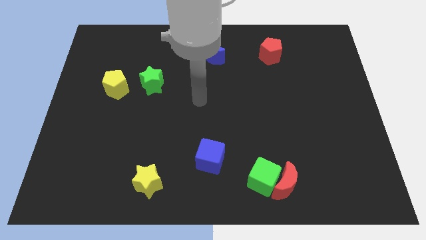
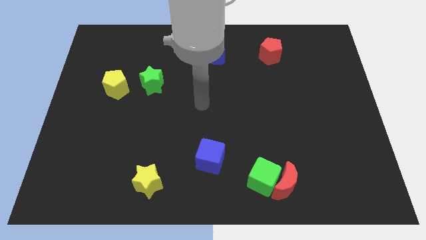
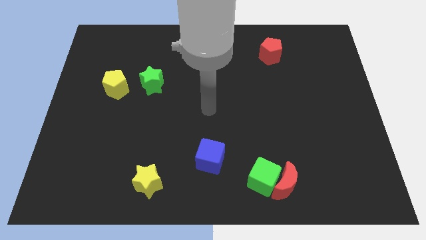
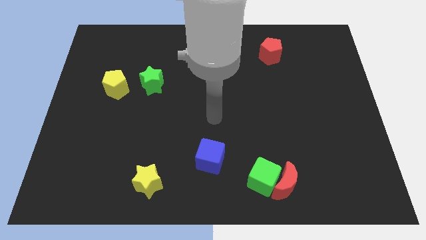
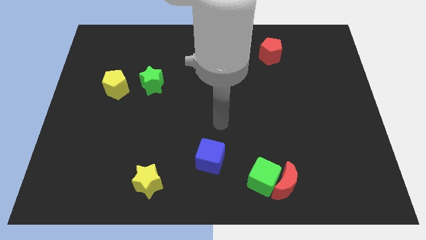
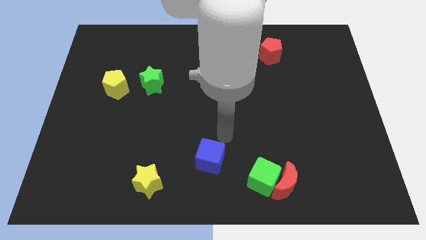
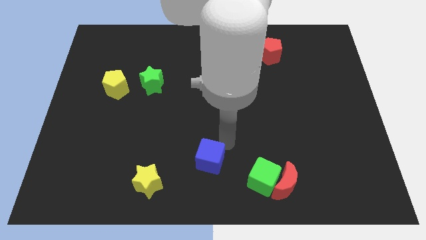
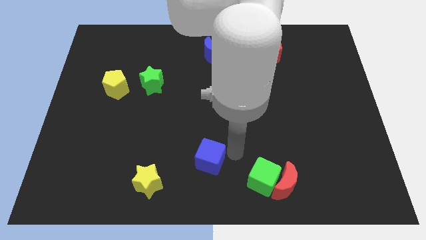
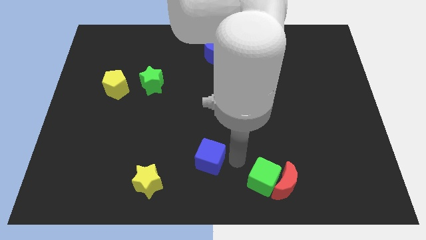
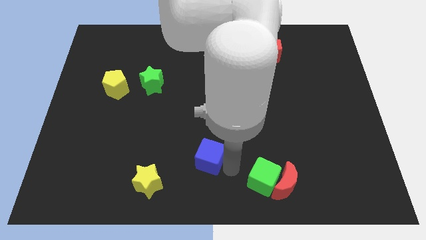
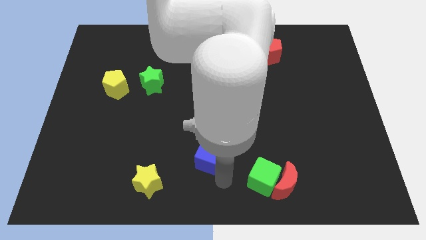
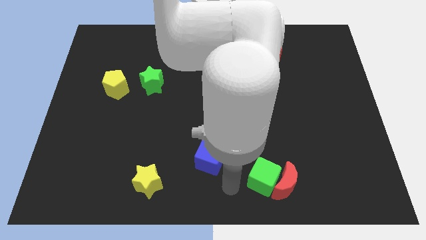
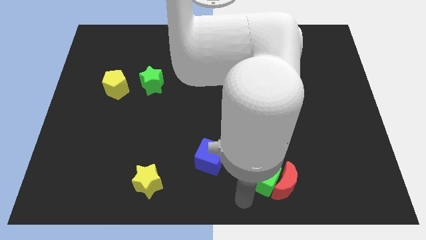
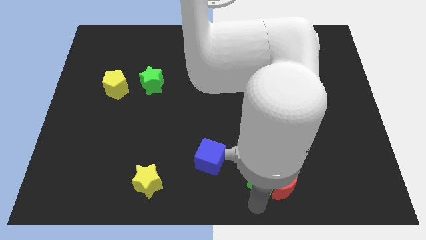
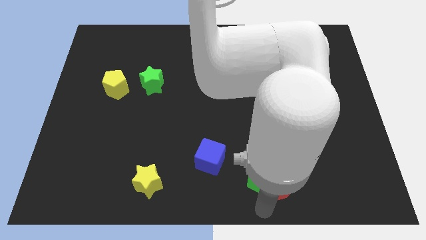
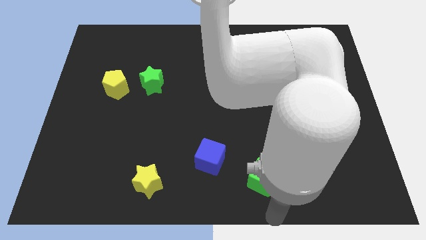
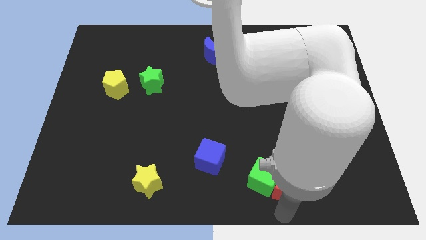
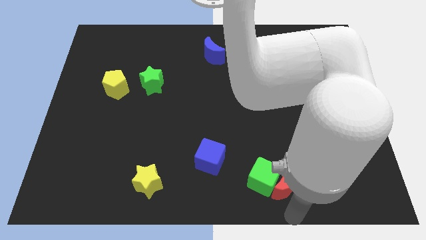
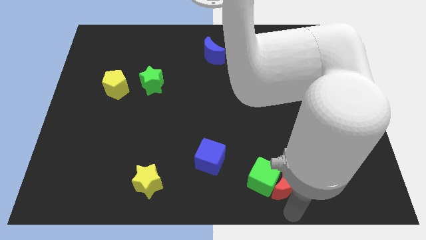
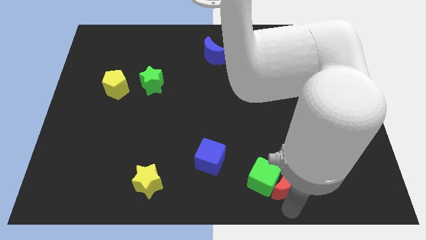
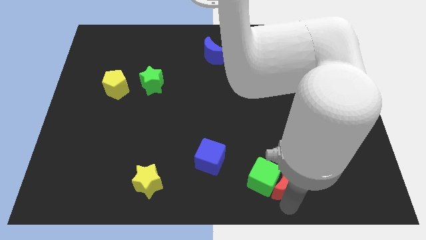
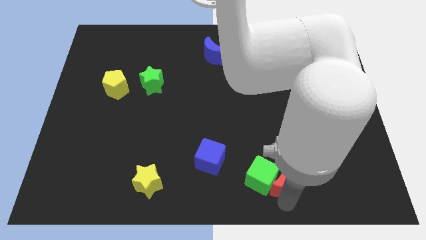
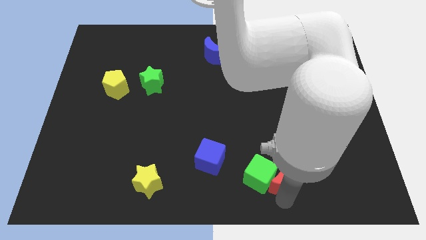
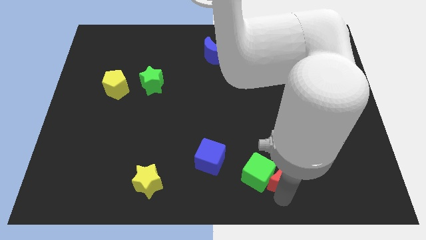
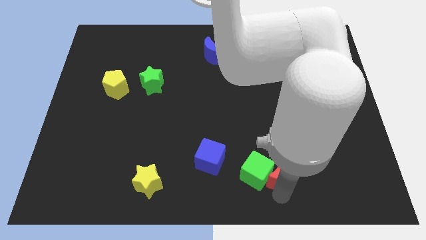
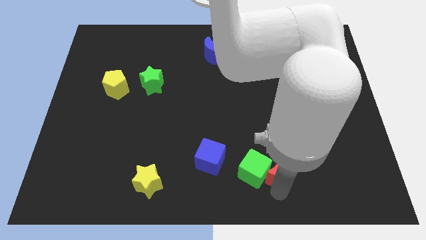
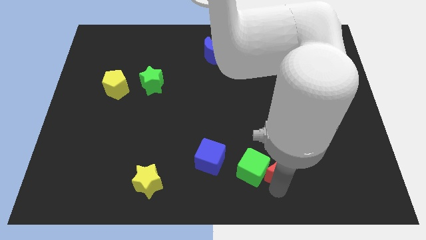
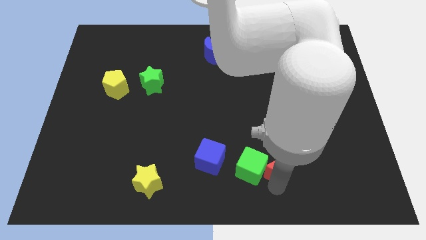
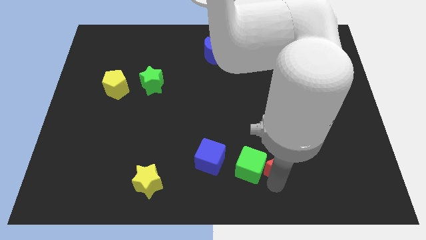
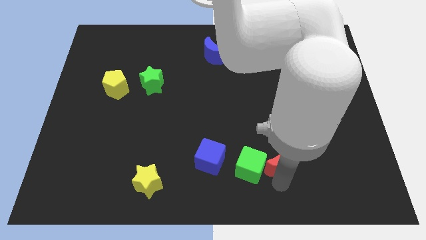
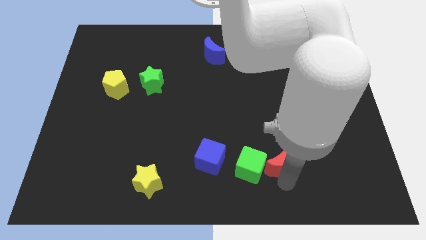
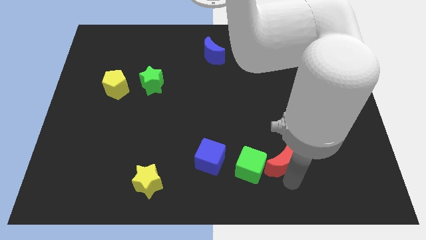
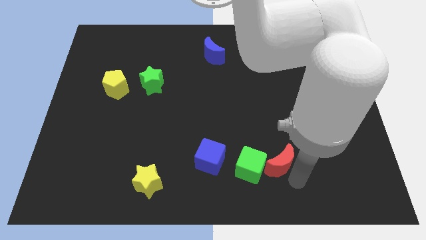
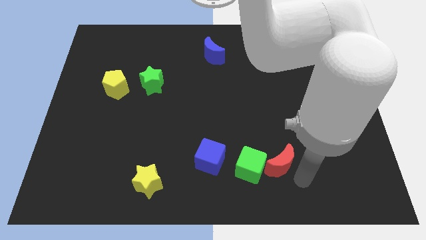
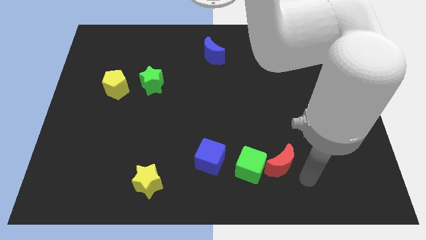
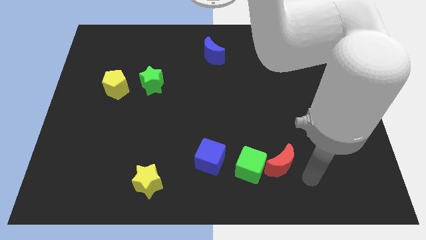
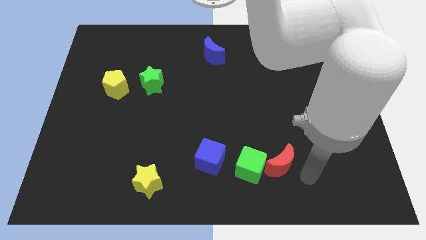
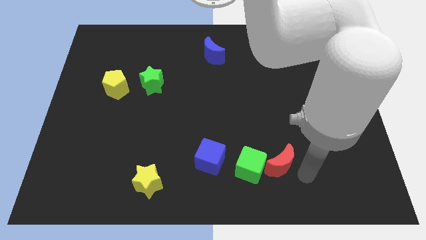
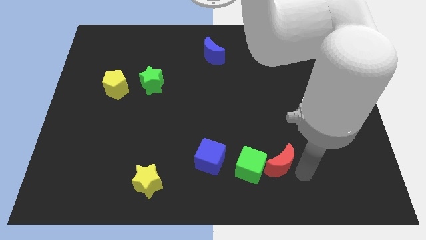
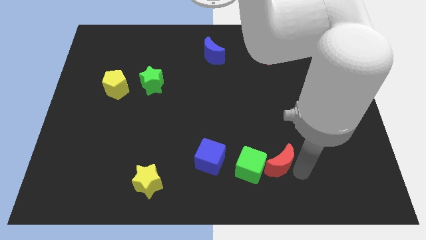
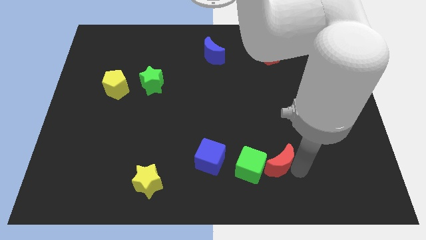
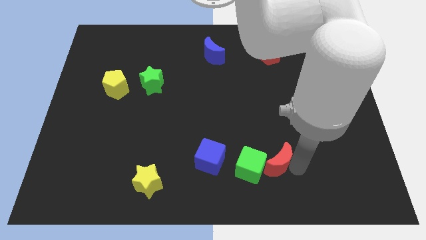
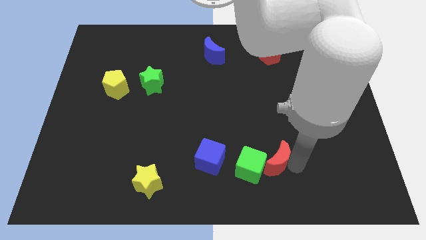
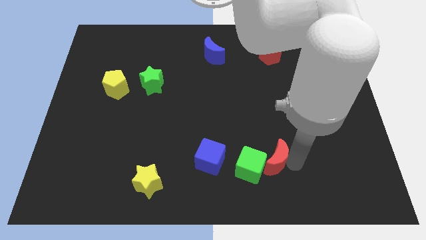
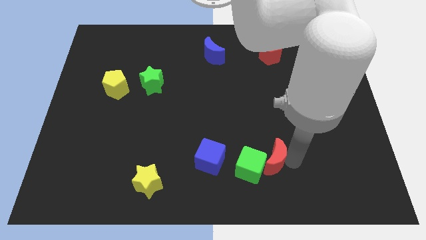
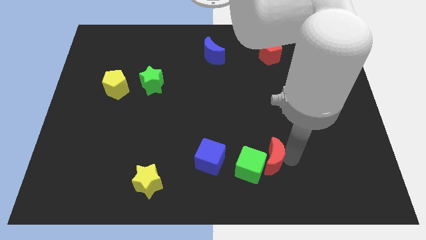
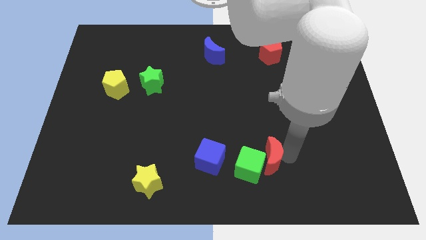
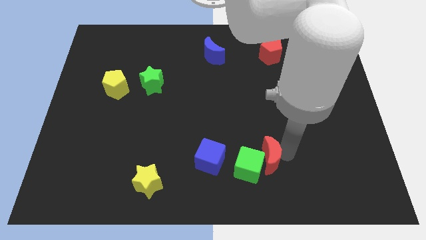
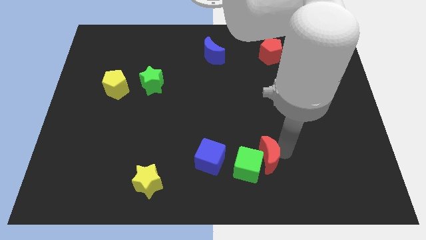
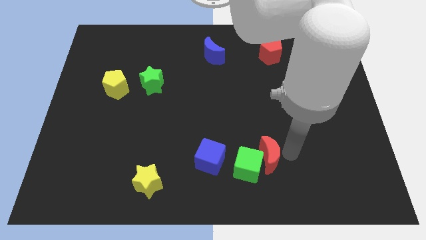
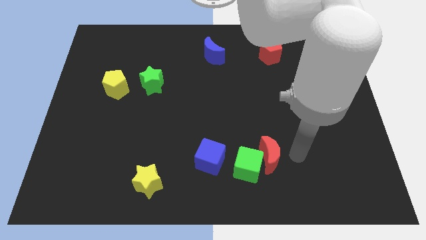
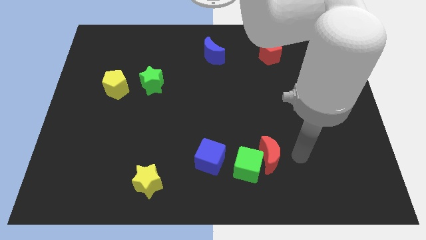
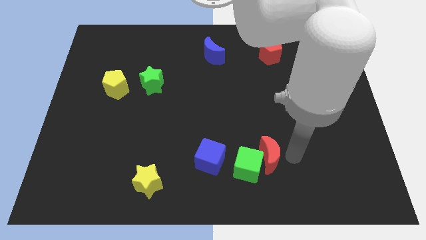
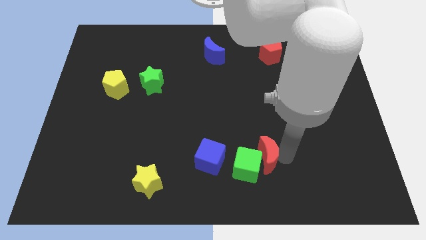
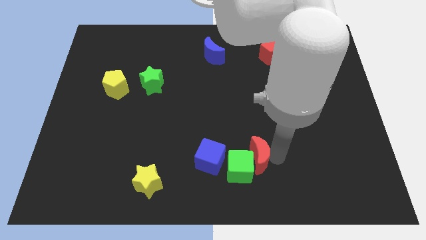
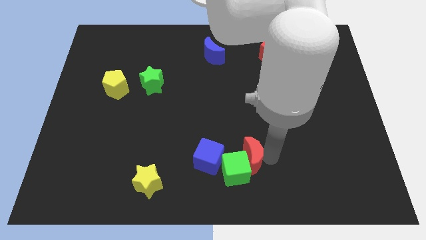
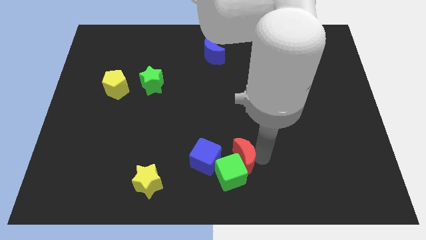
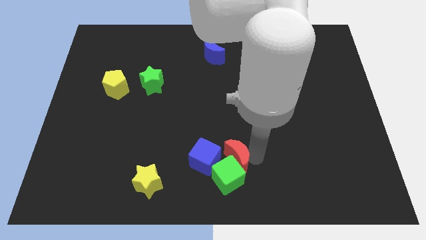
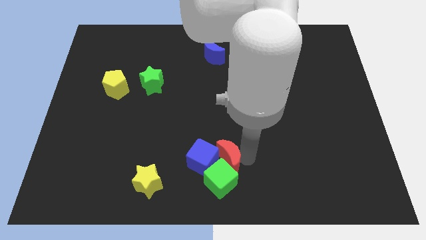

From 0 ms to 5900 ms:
push the red moon to the blue cube
